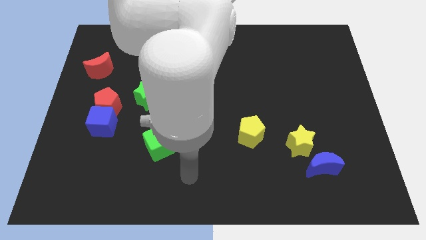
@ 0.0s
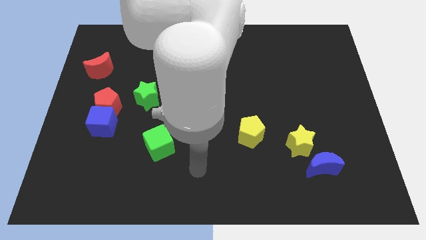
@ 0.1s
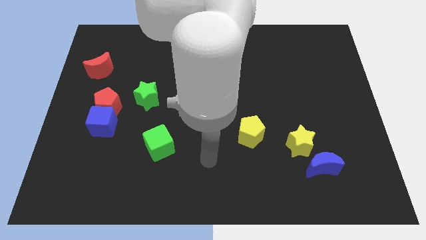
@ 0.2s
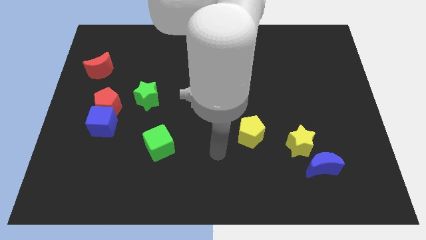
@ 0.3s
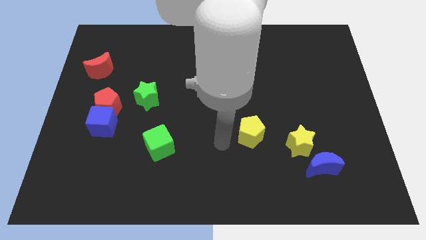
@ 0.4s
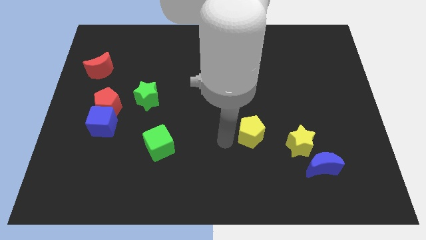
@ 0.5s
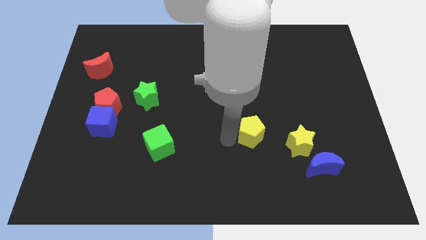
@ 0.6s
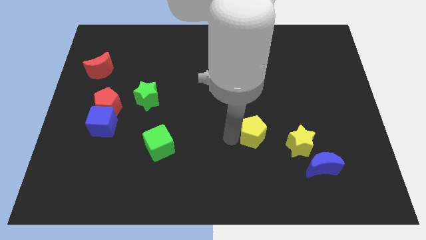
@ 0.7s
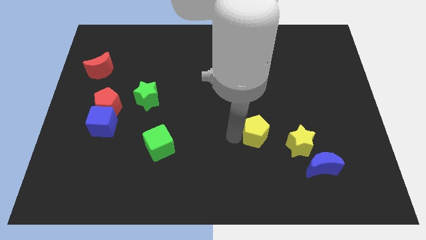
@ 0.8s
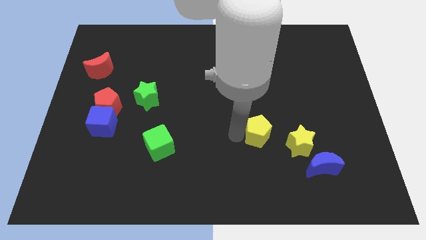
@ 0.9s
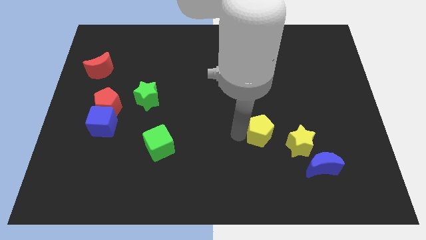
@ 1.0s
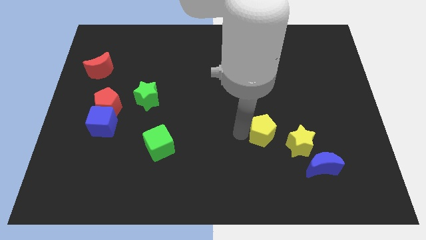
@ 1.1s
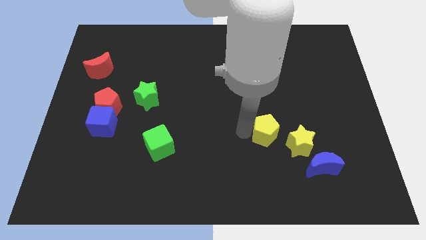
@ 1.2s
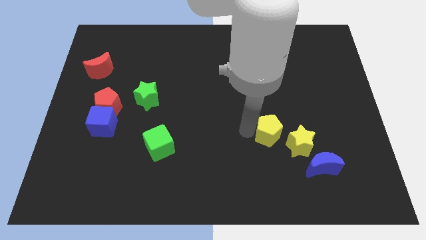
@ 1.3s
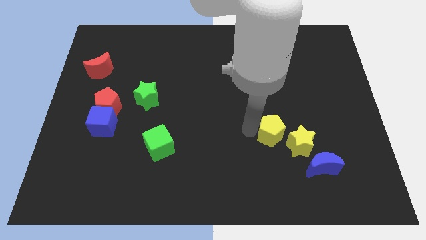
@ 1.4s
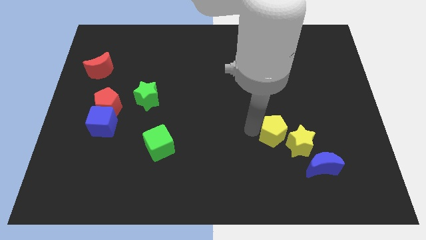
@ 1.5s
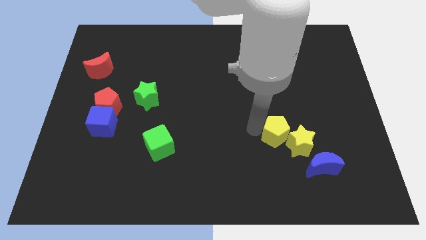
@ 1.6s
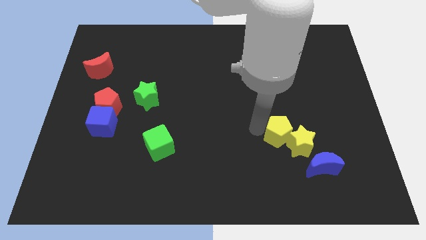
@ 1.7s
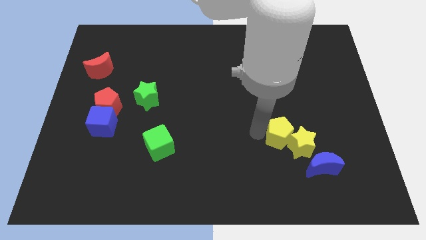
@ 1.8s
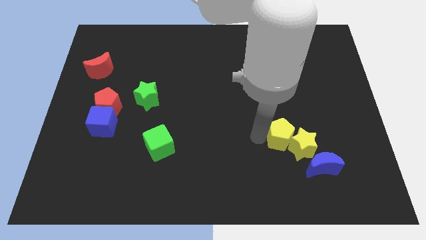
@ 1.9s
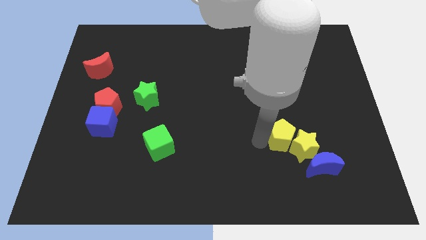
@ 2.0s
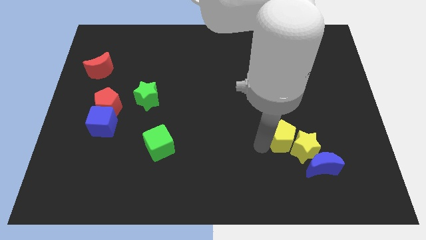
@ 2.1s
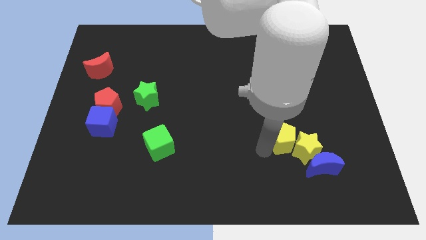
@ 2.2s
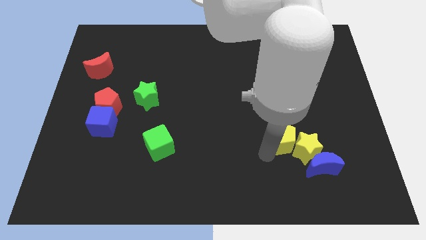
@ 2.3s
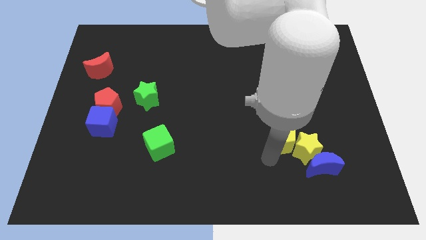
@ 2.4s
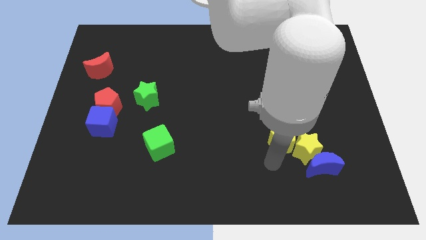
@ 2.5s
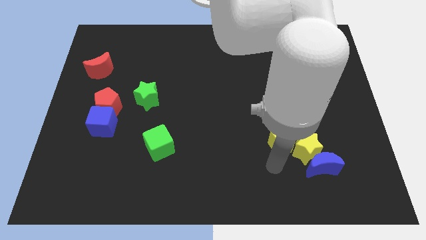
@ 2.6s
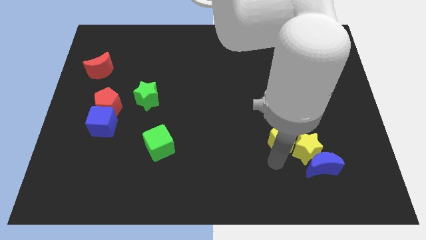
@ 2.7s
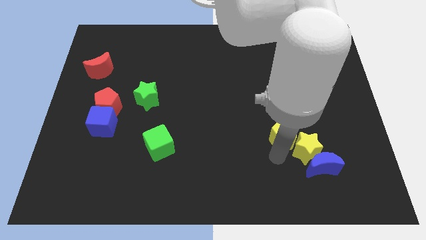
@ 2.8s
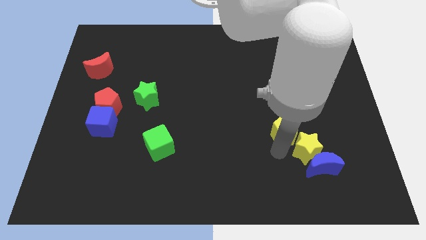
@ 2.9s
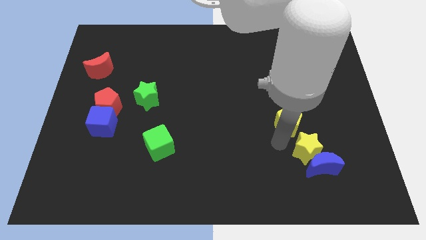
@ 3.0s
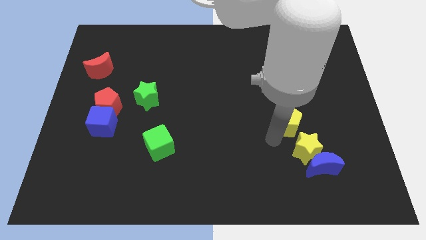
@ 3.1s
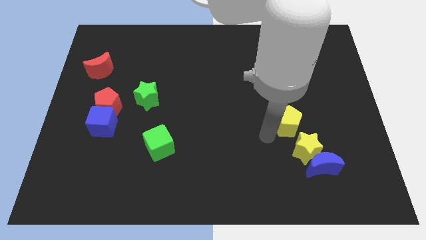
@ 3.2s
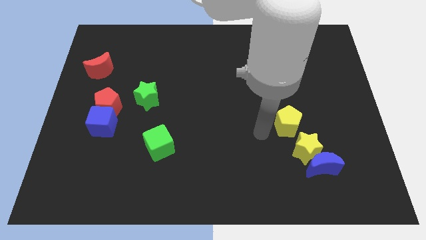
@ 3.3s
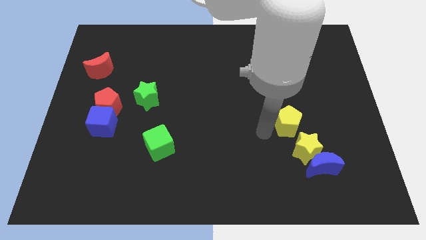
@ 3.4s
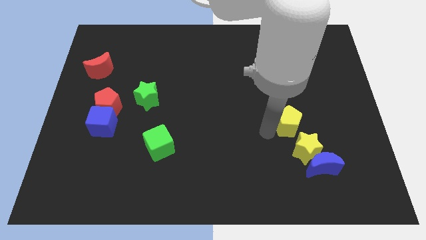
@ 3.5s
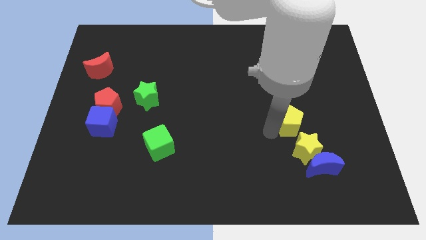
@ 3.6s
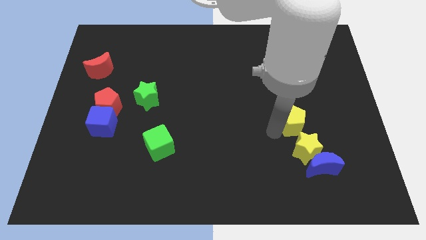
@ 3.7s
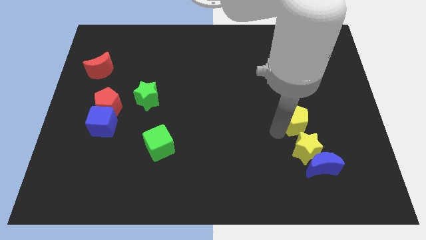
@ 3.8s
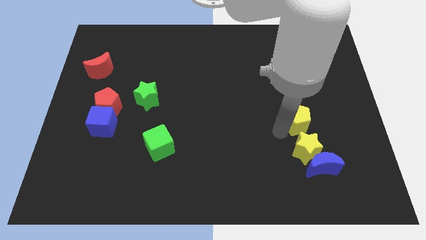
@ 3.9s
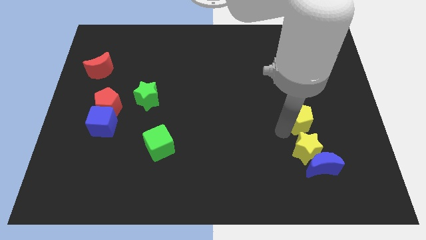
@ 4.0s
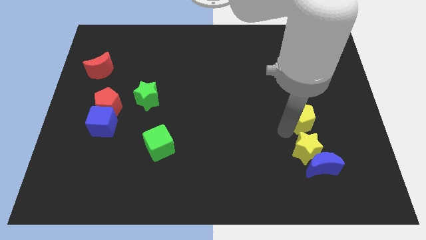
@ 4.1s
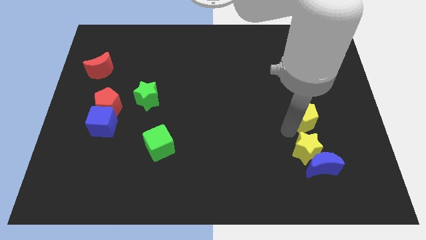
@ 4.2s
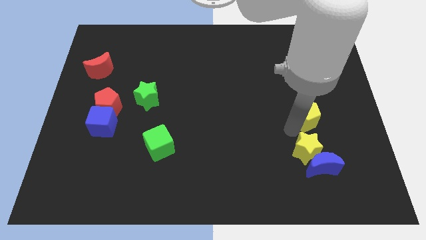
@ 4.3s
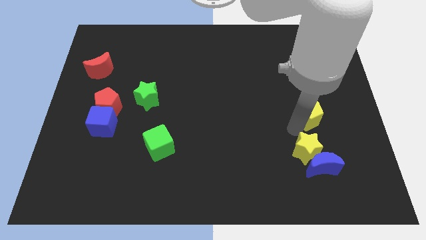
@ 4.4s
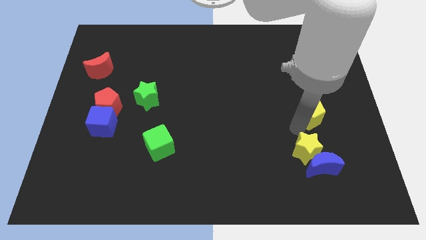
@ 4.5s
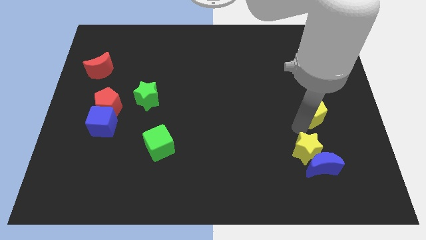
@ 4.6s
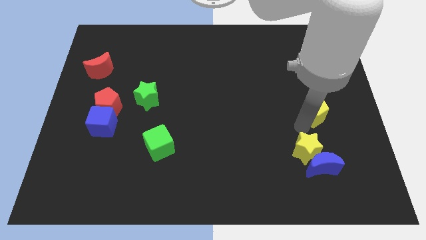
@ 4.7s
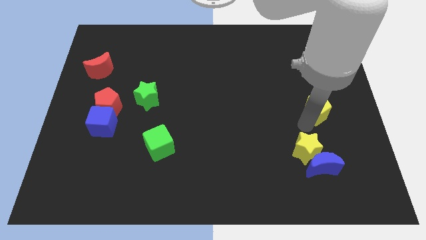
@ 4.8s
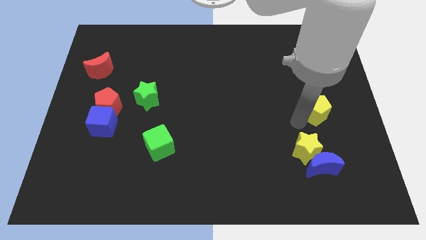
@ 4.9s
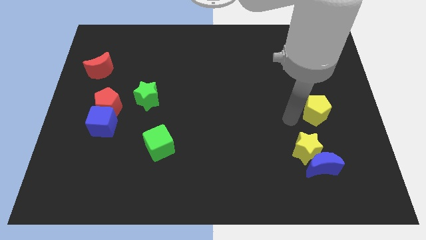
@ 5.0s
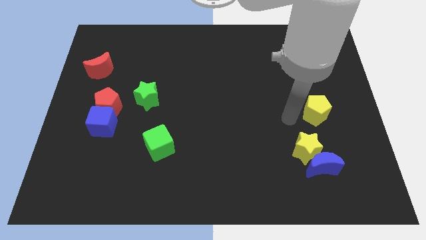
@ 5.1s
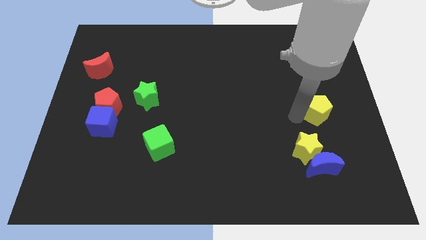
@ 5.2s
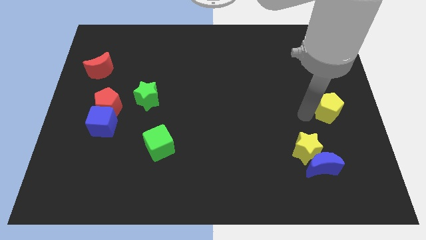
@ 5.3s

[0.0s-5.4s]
put the yellow pentagon to the right side of the board

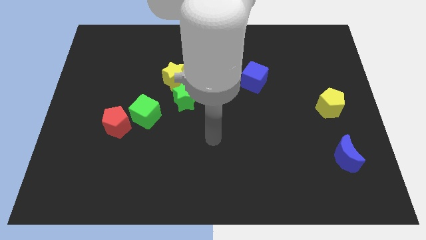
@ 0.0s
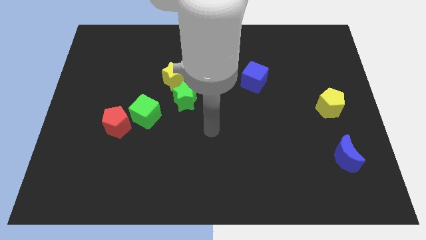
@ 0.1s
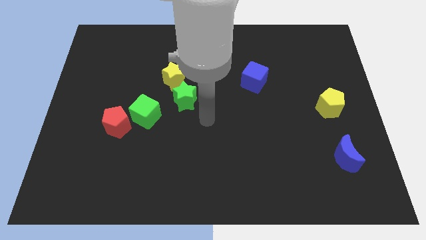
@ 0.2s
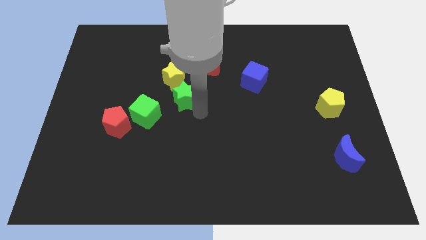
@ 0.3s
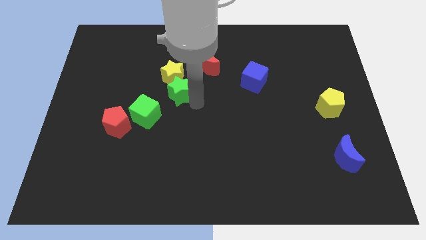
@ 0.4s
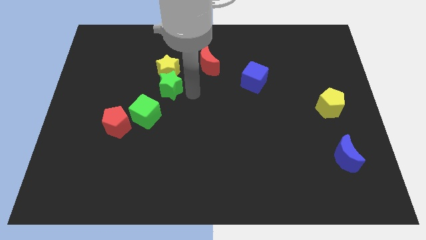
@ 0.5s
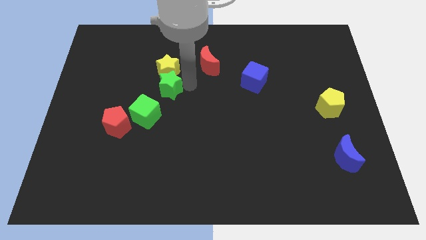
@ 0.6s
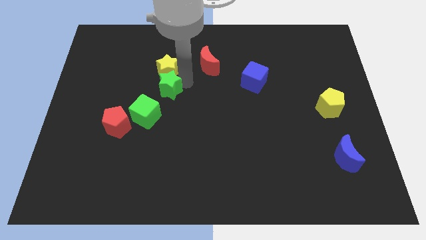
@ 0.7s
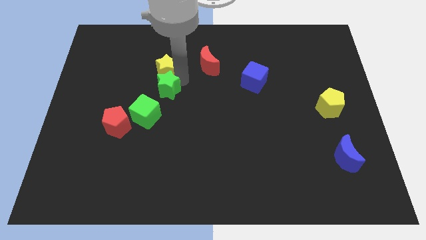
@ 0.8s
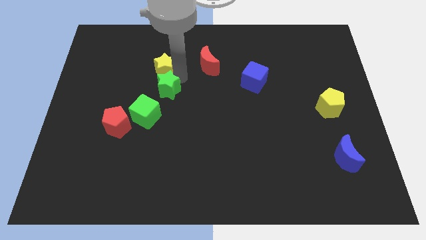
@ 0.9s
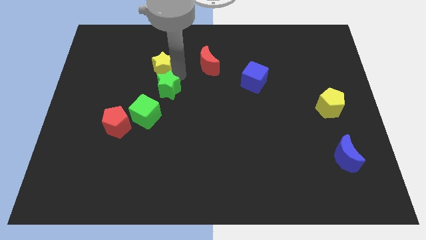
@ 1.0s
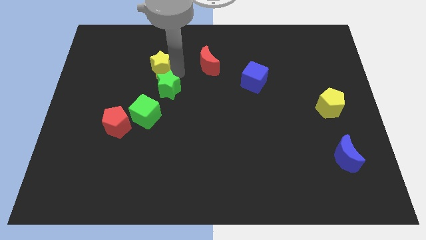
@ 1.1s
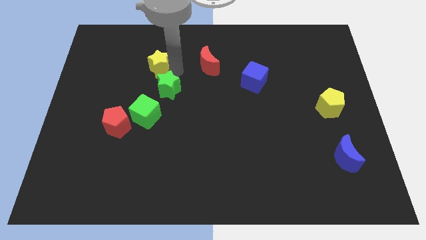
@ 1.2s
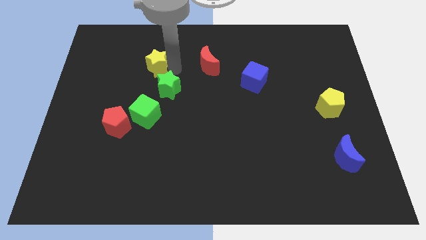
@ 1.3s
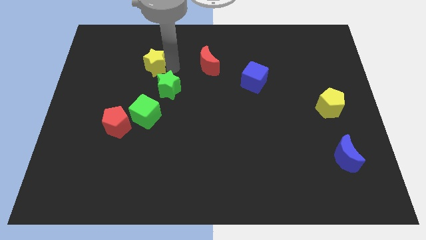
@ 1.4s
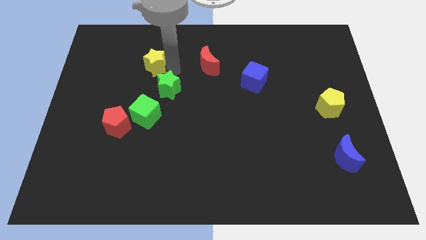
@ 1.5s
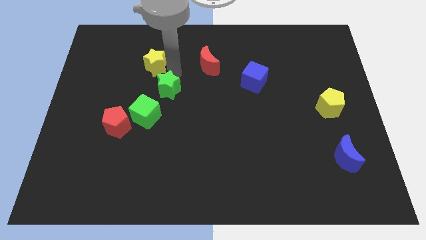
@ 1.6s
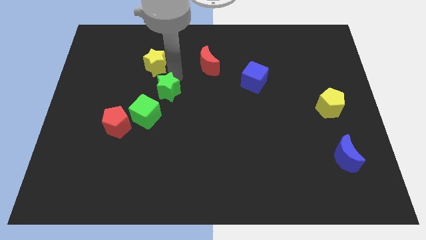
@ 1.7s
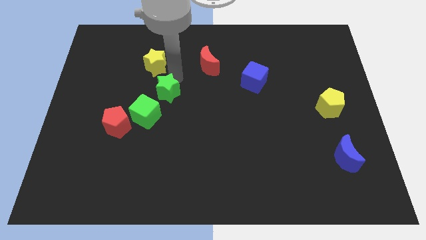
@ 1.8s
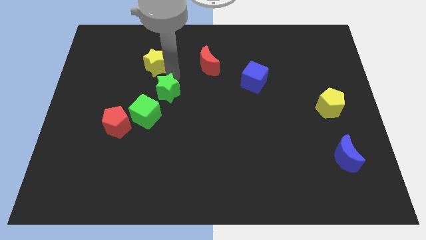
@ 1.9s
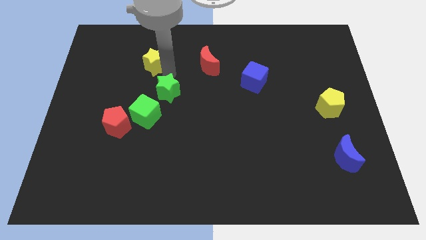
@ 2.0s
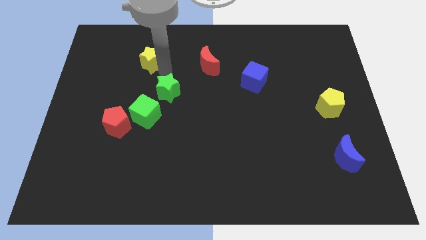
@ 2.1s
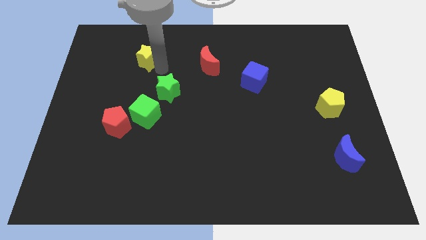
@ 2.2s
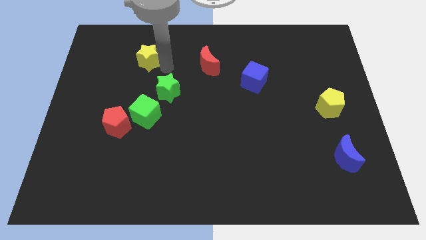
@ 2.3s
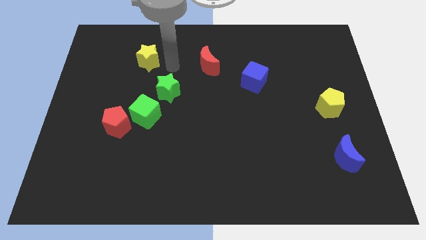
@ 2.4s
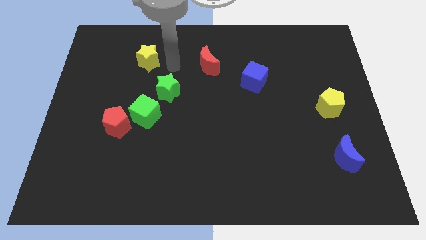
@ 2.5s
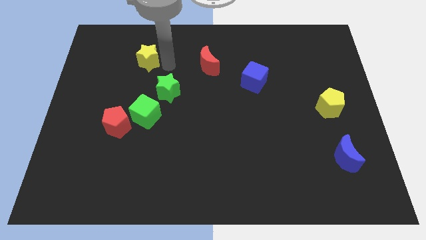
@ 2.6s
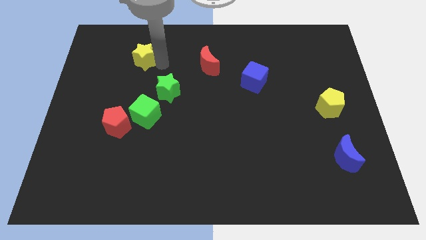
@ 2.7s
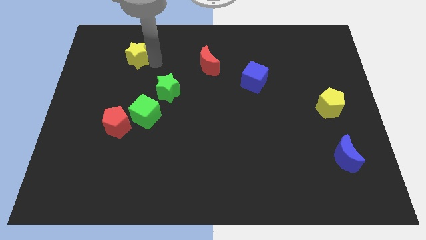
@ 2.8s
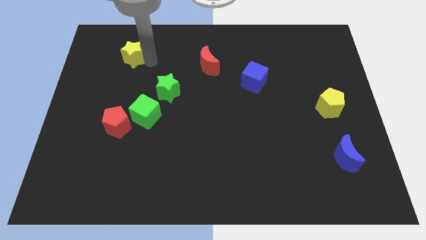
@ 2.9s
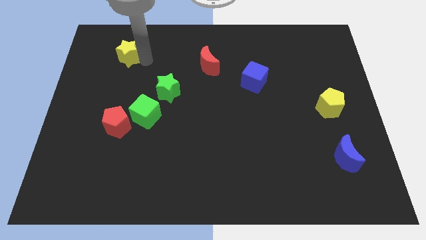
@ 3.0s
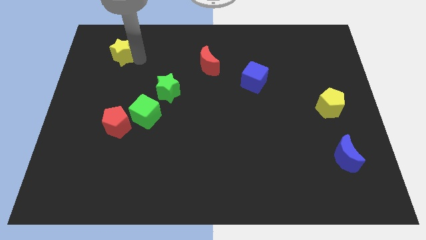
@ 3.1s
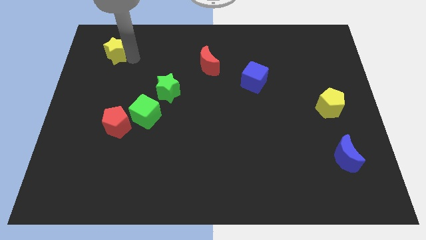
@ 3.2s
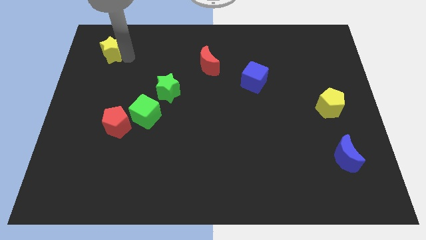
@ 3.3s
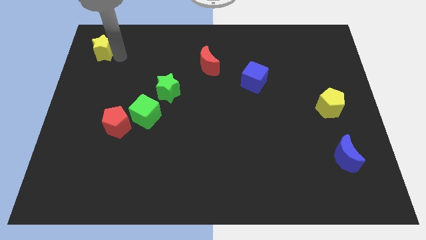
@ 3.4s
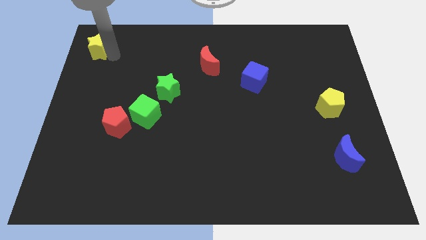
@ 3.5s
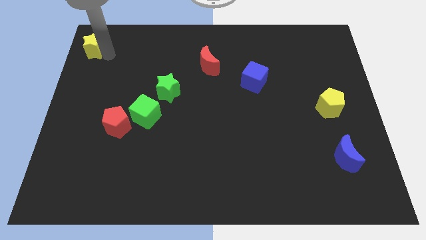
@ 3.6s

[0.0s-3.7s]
move the yellow star to the top left
